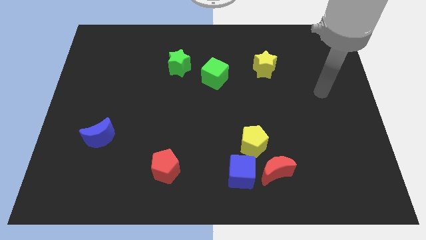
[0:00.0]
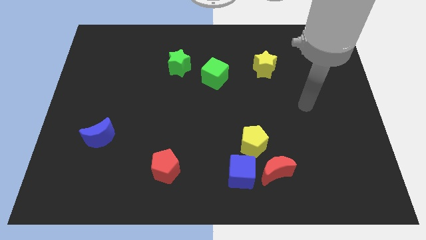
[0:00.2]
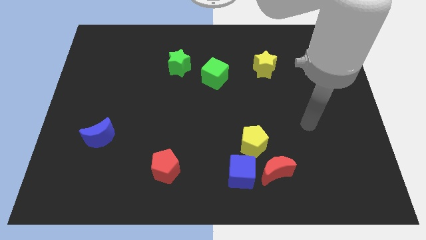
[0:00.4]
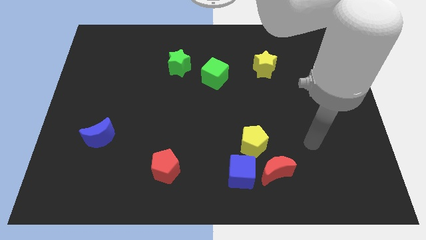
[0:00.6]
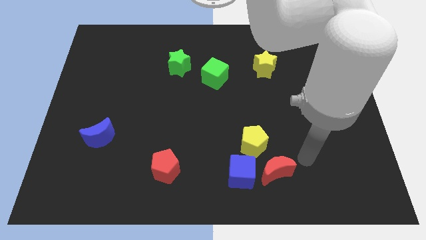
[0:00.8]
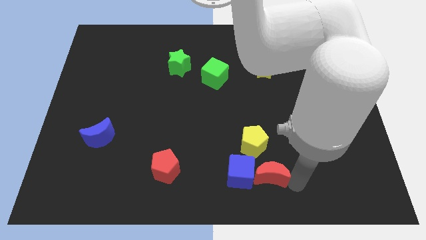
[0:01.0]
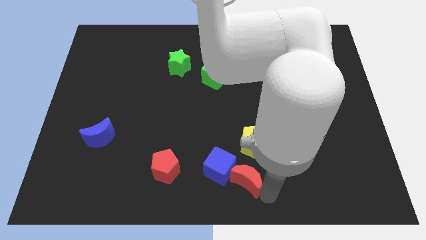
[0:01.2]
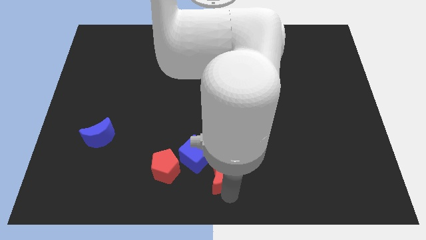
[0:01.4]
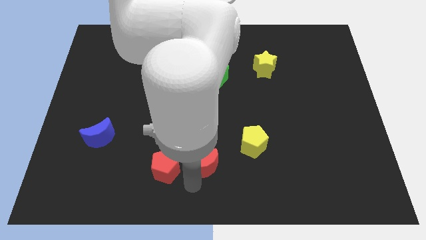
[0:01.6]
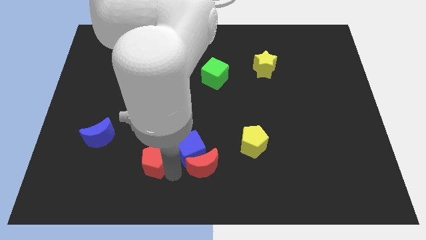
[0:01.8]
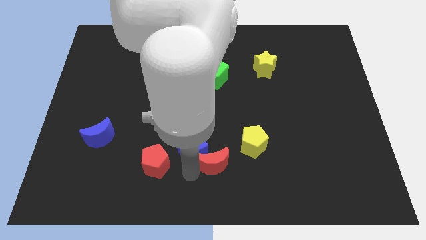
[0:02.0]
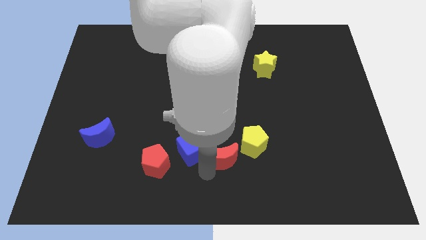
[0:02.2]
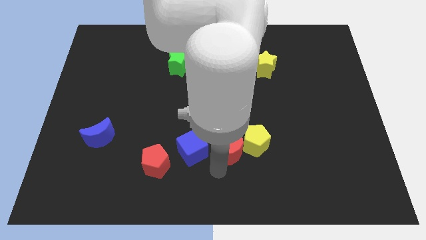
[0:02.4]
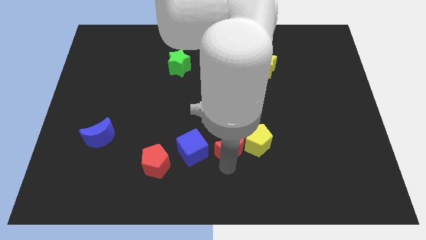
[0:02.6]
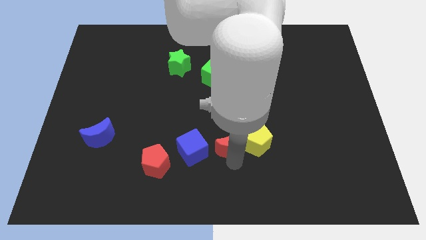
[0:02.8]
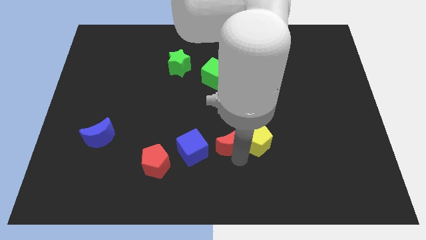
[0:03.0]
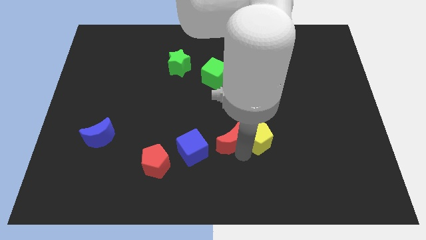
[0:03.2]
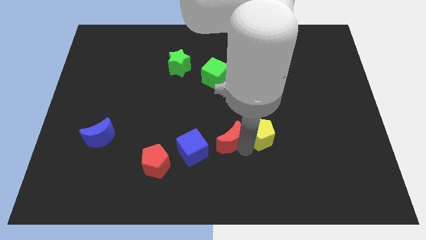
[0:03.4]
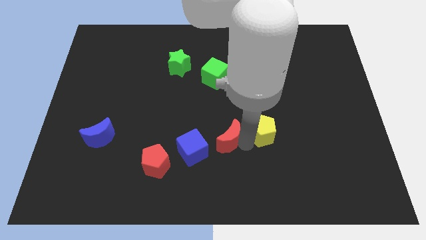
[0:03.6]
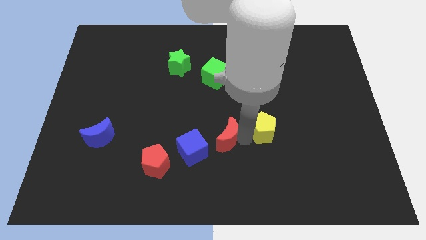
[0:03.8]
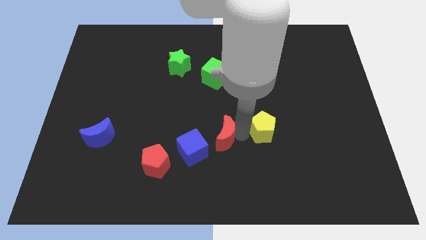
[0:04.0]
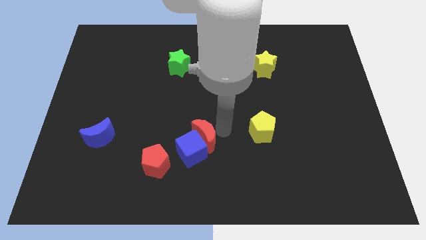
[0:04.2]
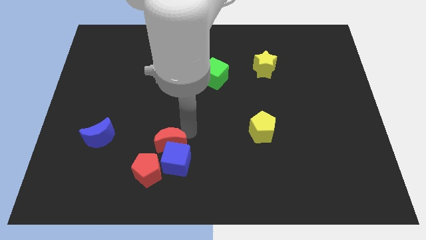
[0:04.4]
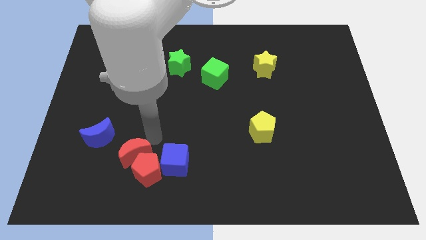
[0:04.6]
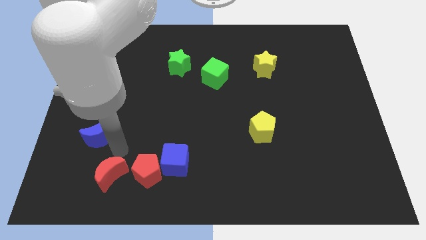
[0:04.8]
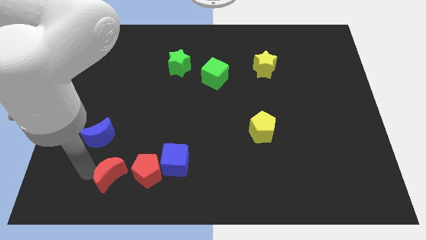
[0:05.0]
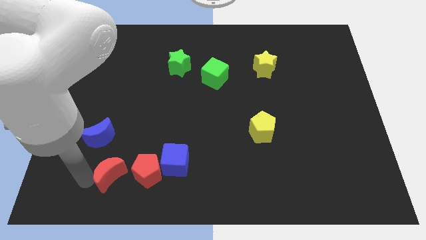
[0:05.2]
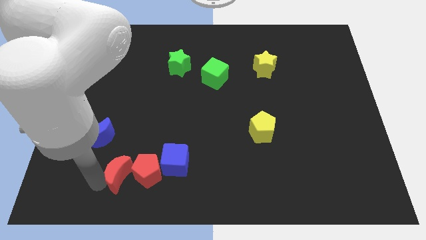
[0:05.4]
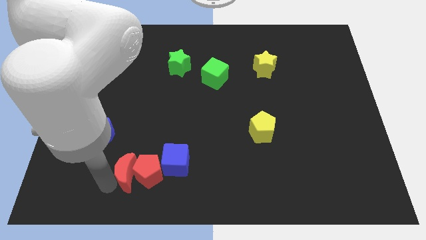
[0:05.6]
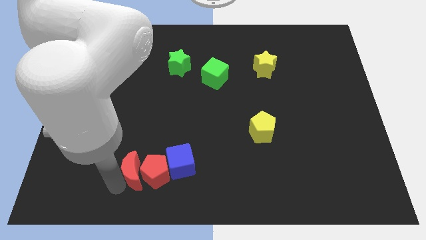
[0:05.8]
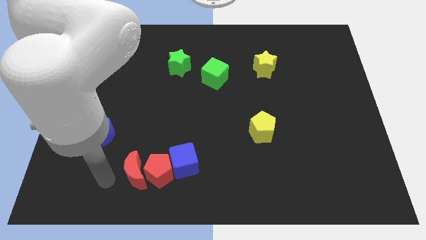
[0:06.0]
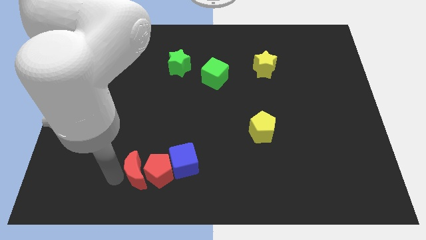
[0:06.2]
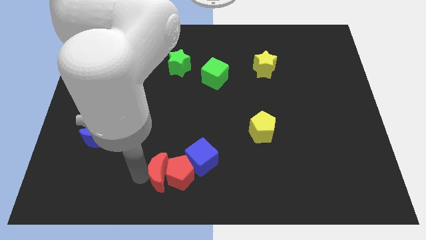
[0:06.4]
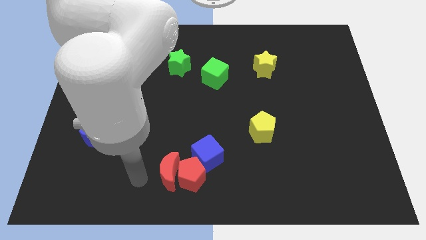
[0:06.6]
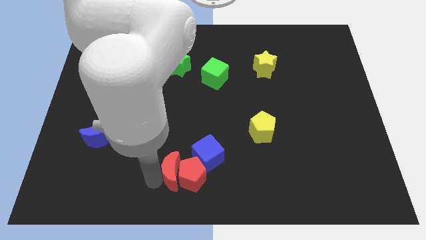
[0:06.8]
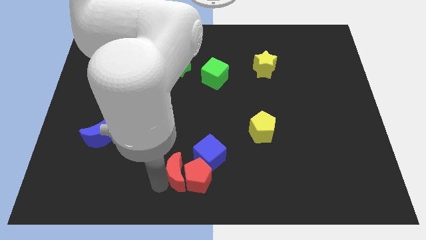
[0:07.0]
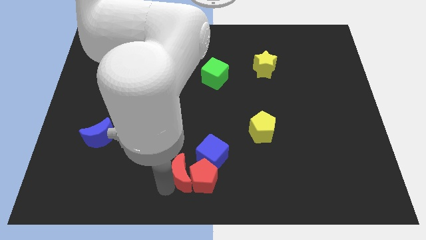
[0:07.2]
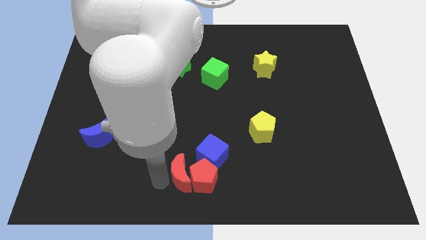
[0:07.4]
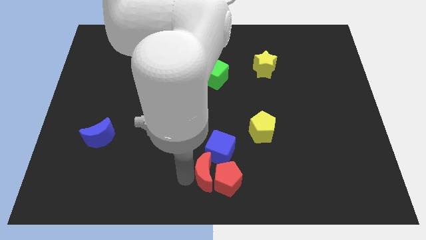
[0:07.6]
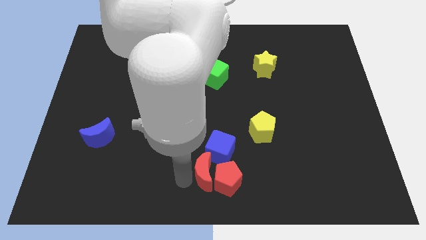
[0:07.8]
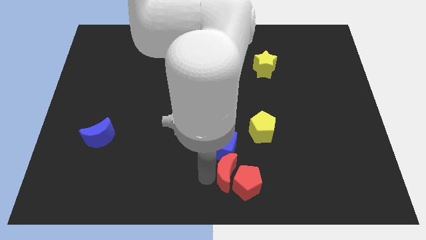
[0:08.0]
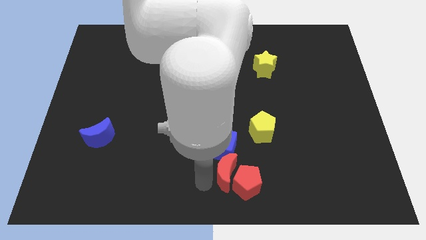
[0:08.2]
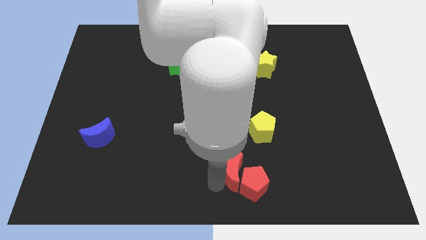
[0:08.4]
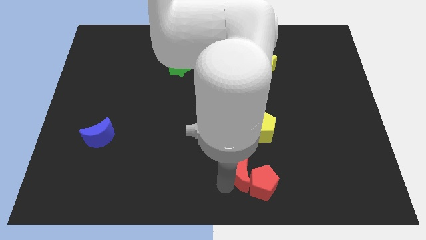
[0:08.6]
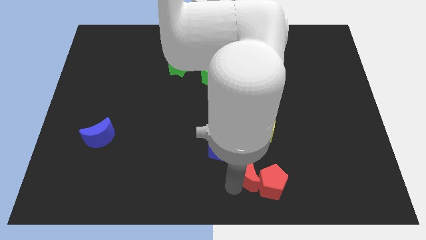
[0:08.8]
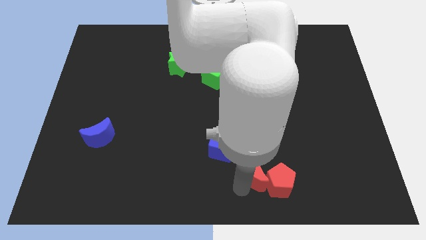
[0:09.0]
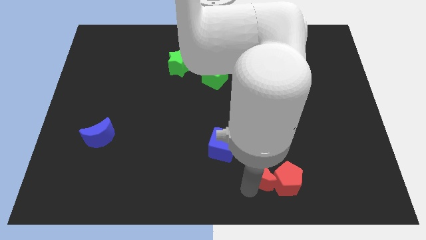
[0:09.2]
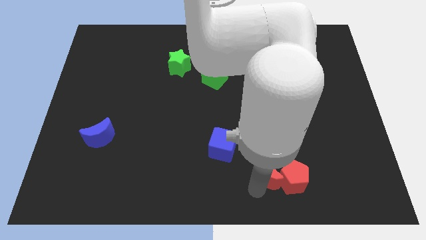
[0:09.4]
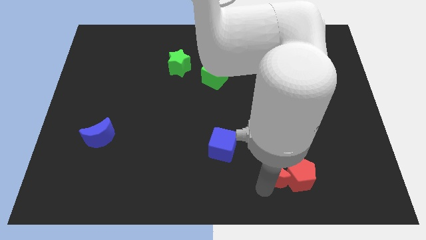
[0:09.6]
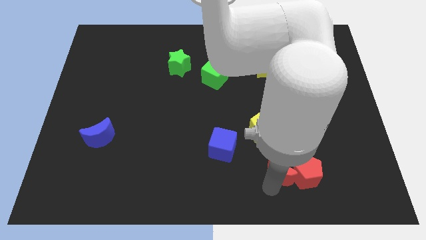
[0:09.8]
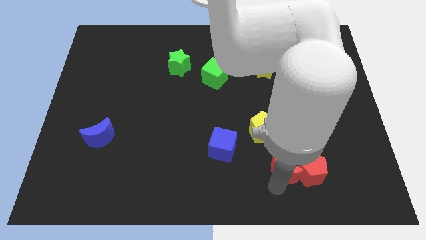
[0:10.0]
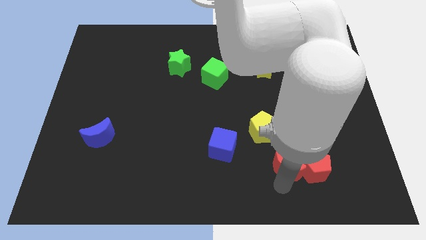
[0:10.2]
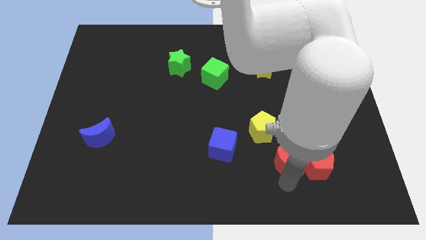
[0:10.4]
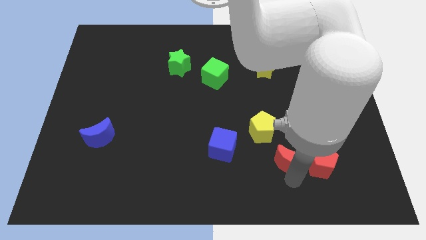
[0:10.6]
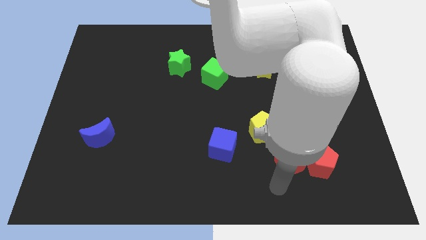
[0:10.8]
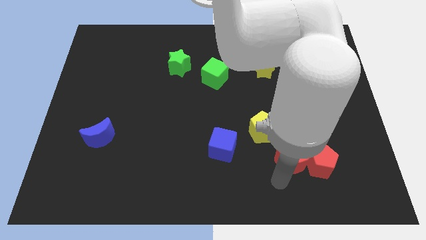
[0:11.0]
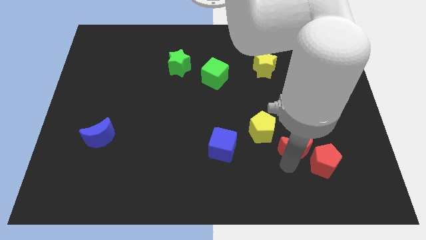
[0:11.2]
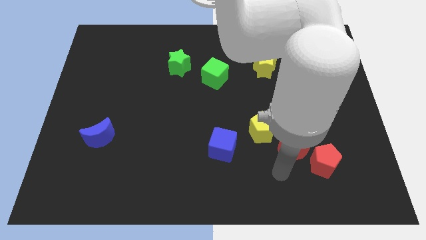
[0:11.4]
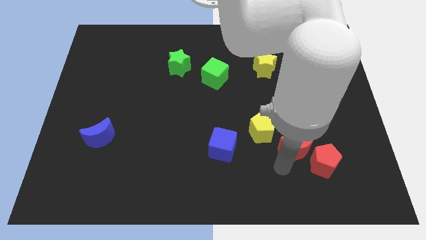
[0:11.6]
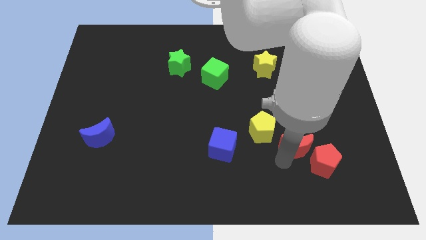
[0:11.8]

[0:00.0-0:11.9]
move the red moon right of the yellow pentagon

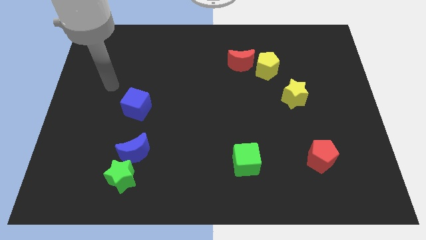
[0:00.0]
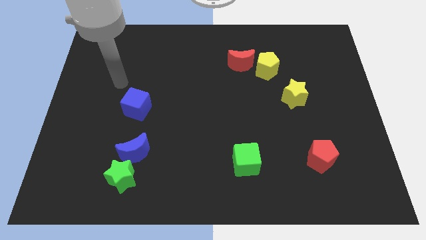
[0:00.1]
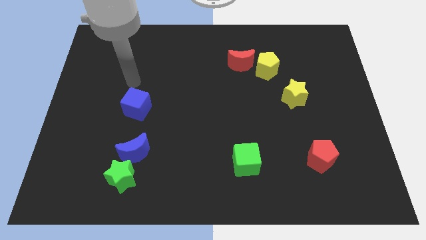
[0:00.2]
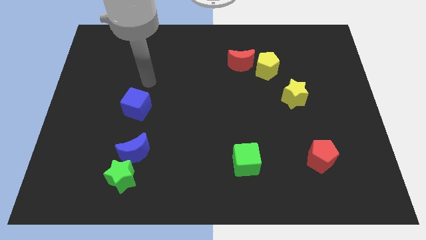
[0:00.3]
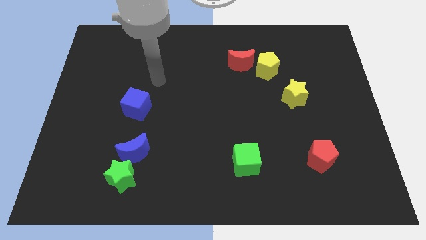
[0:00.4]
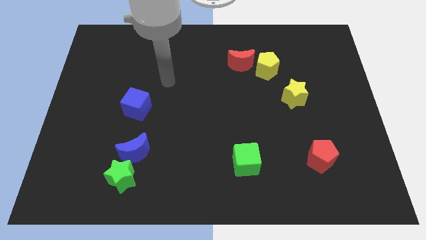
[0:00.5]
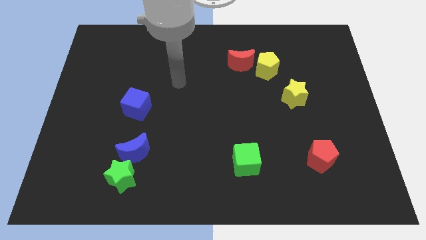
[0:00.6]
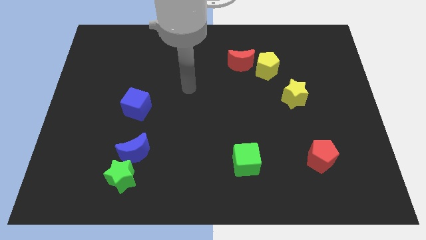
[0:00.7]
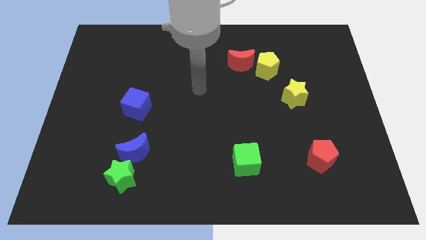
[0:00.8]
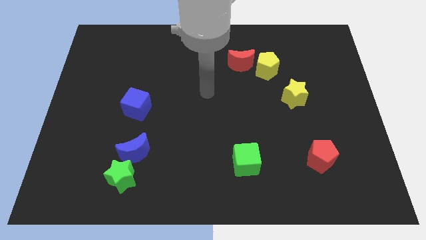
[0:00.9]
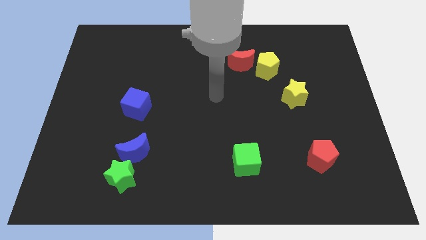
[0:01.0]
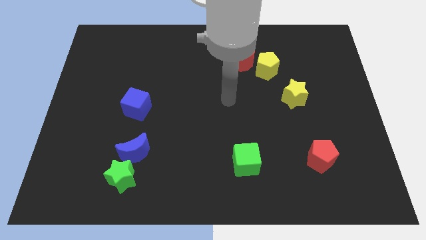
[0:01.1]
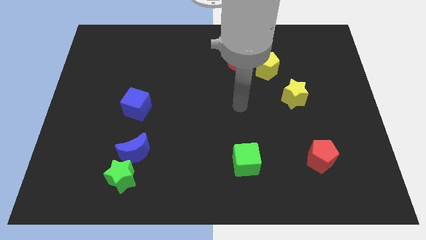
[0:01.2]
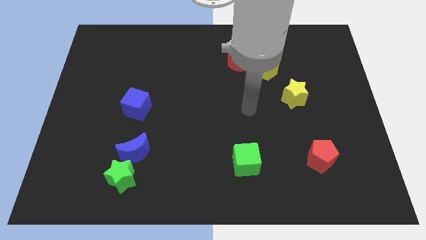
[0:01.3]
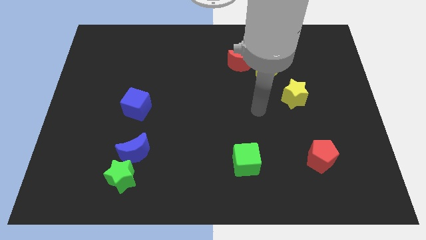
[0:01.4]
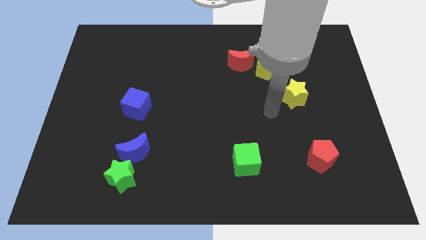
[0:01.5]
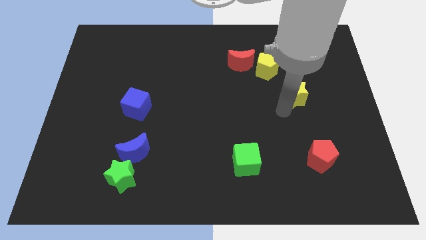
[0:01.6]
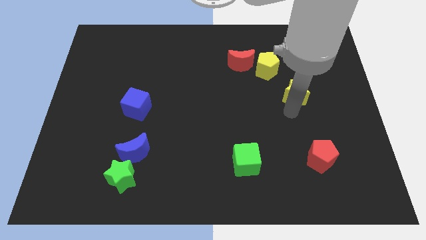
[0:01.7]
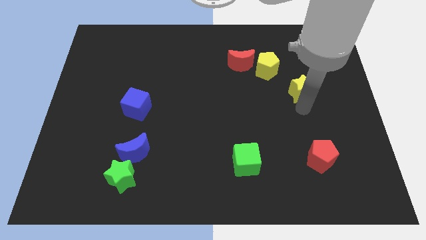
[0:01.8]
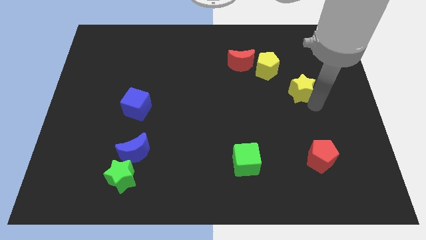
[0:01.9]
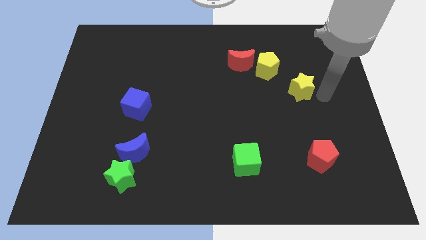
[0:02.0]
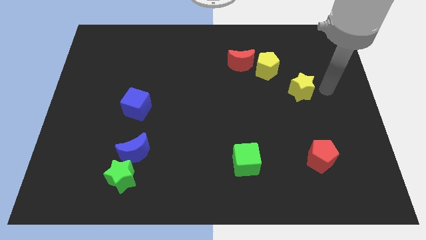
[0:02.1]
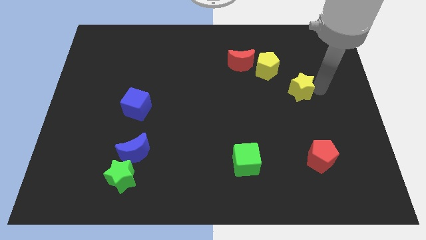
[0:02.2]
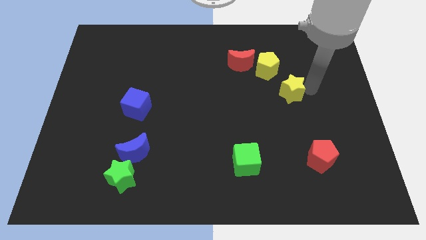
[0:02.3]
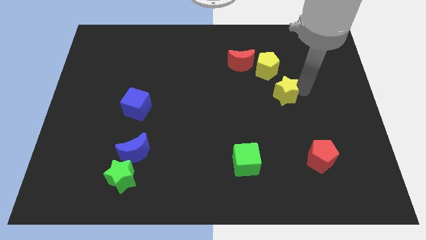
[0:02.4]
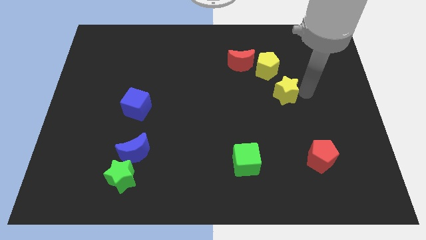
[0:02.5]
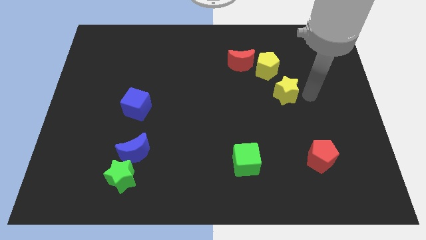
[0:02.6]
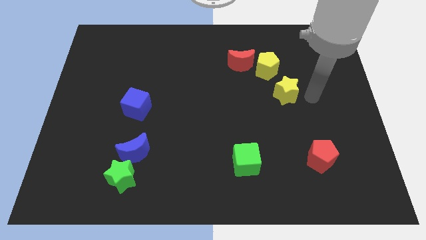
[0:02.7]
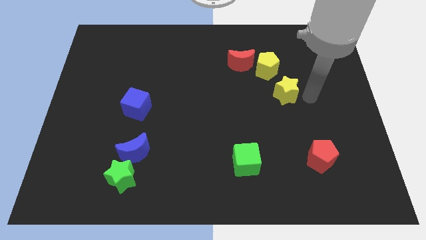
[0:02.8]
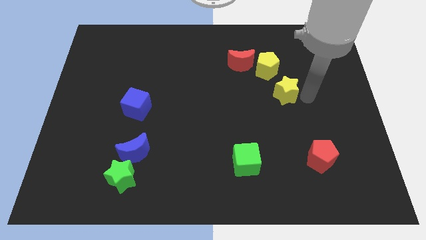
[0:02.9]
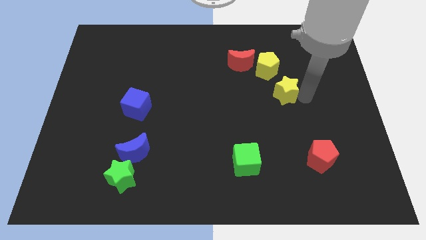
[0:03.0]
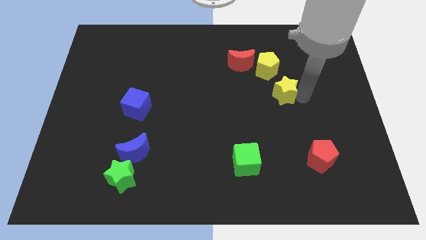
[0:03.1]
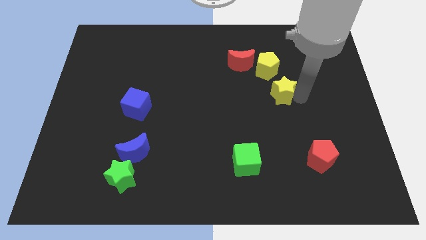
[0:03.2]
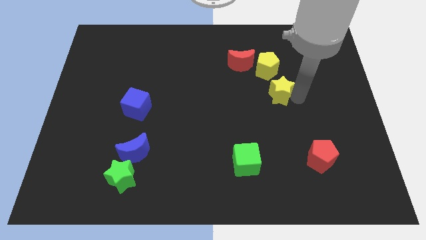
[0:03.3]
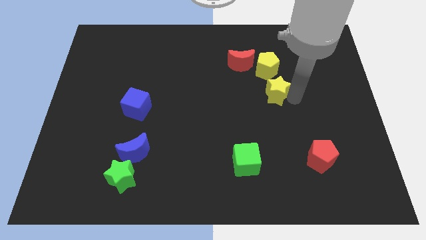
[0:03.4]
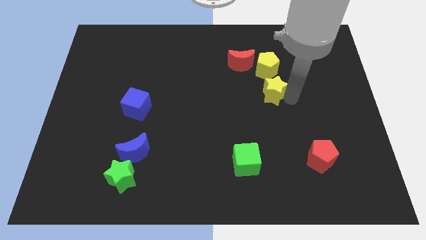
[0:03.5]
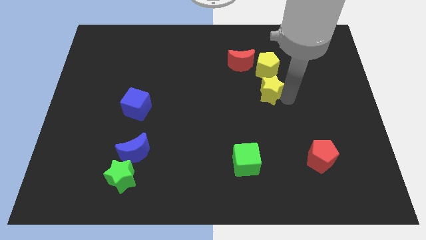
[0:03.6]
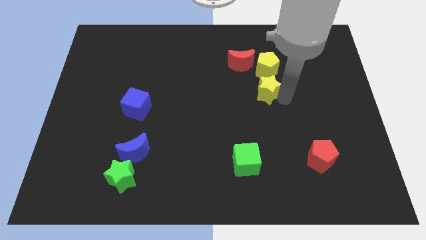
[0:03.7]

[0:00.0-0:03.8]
move the yellow star diagonally down and to the left of the yellow pentagon
